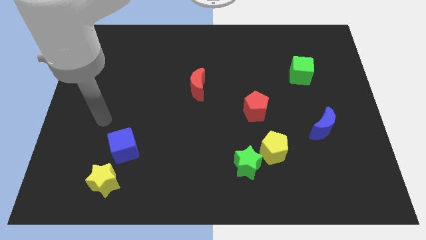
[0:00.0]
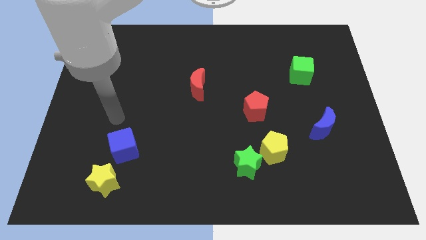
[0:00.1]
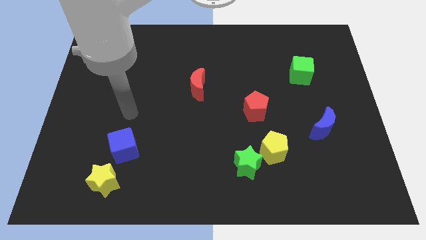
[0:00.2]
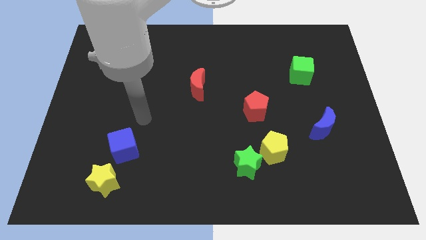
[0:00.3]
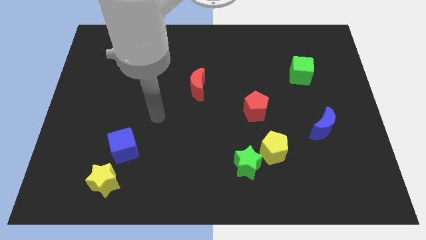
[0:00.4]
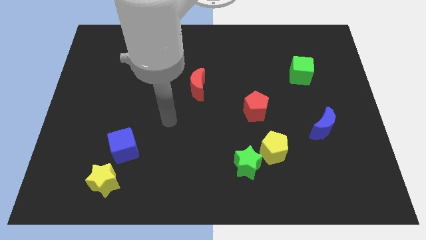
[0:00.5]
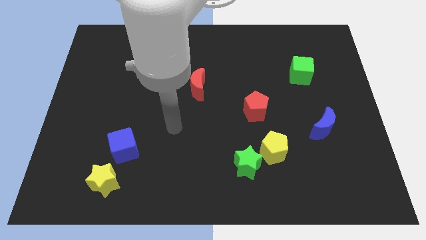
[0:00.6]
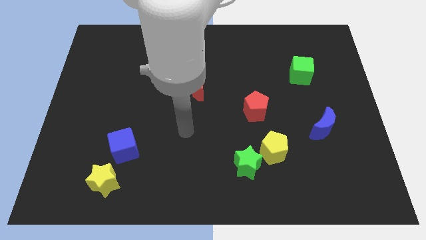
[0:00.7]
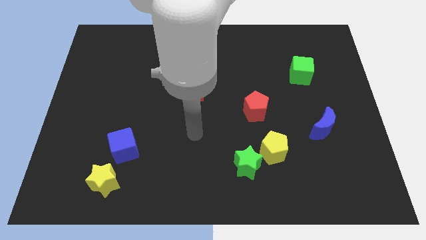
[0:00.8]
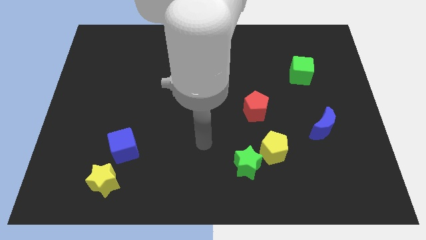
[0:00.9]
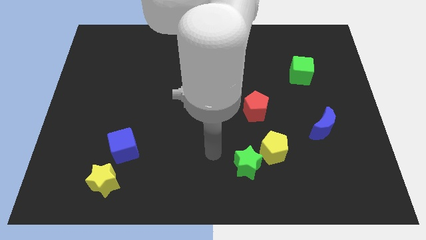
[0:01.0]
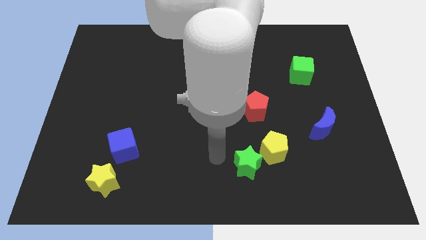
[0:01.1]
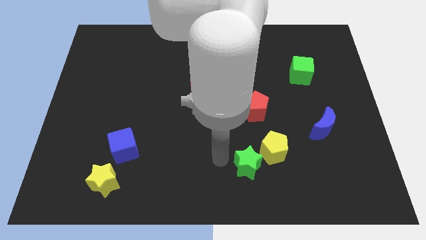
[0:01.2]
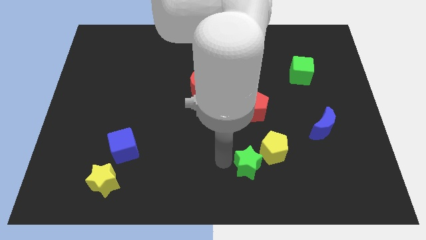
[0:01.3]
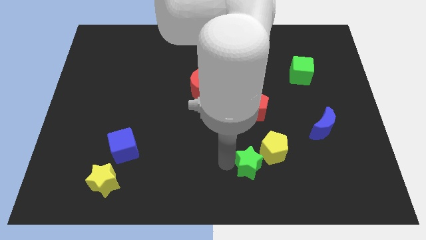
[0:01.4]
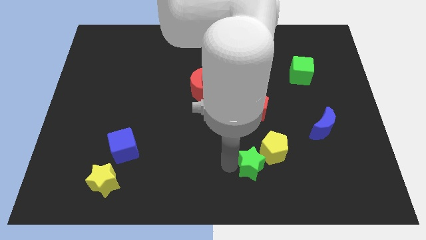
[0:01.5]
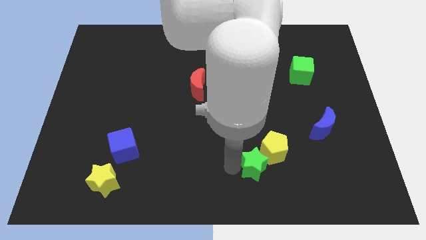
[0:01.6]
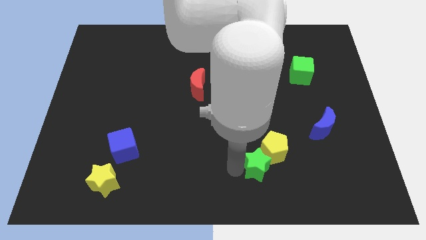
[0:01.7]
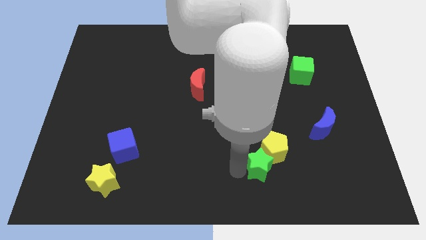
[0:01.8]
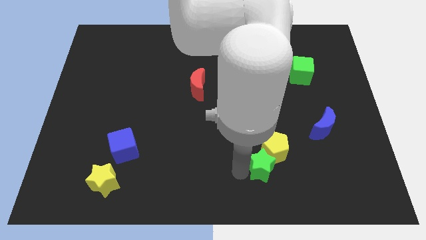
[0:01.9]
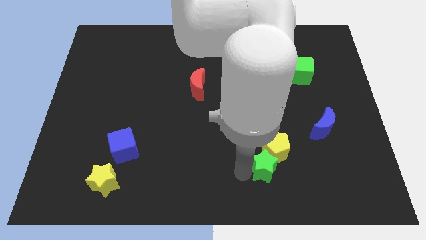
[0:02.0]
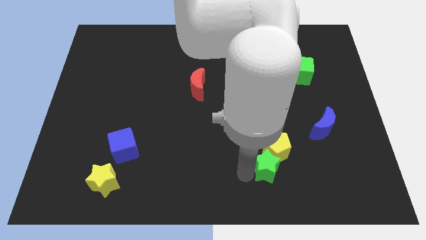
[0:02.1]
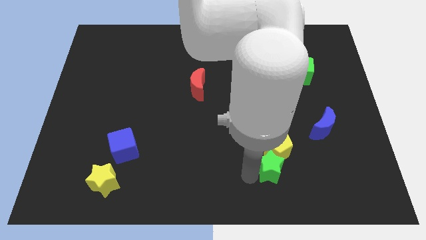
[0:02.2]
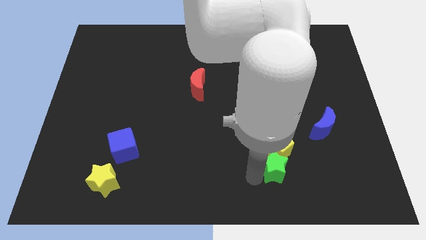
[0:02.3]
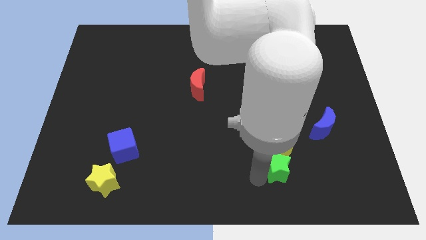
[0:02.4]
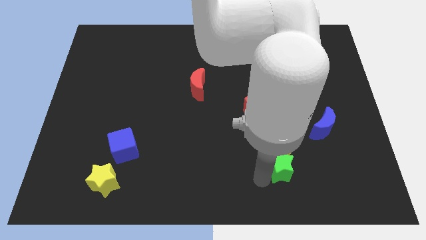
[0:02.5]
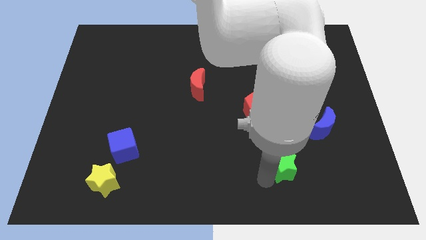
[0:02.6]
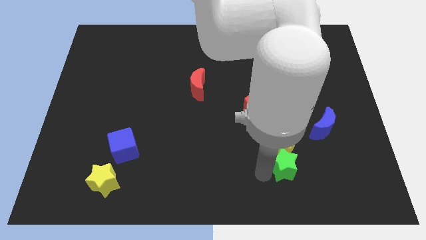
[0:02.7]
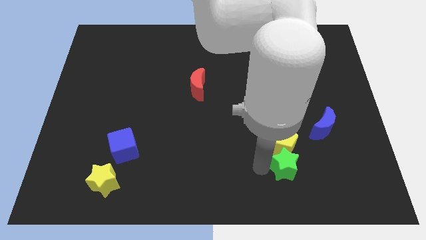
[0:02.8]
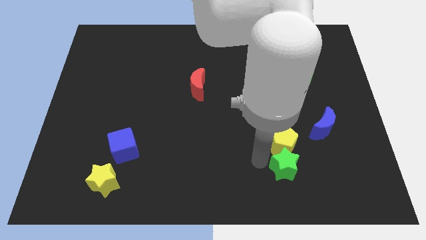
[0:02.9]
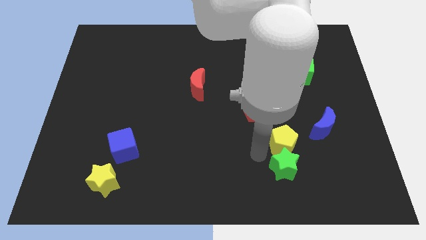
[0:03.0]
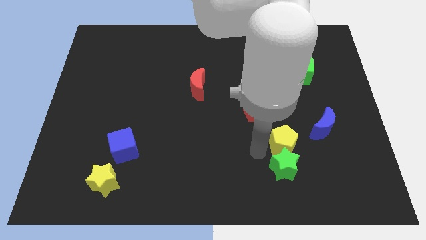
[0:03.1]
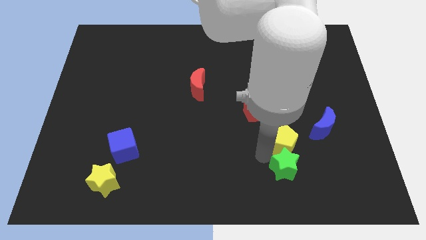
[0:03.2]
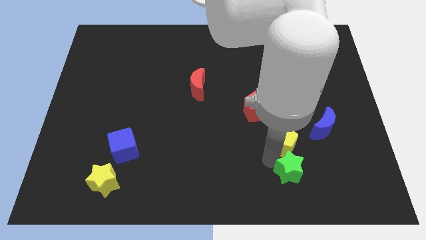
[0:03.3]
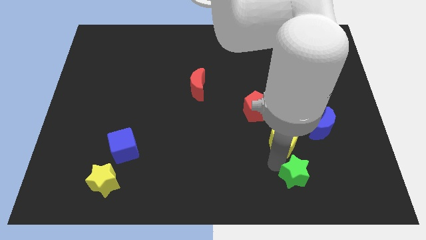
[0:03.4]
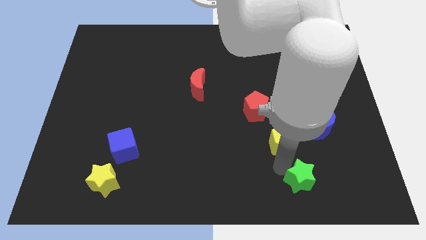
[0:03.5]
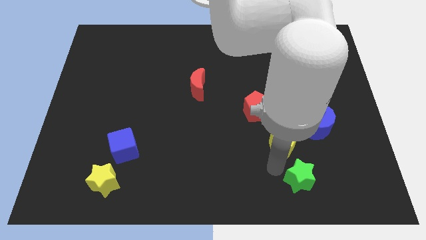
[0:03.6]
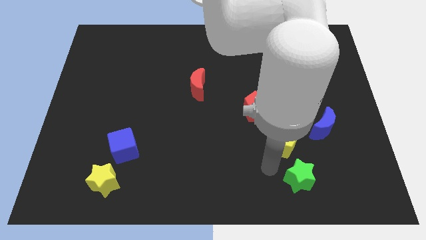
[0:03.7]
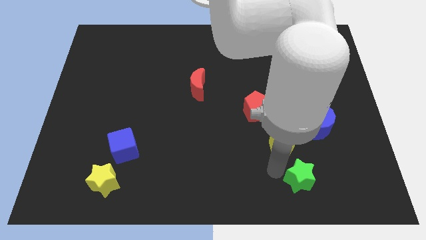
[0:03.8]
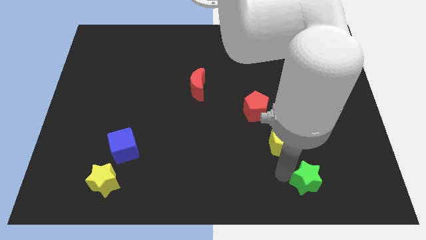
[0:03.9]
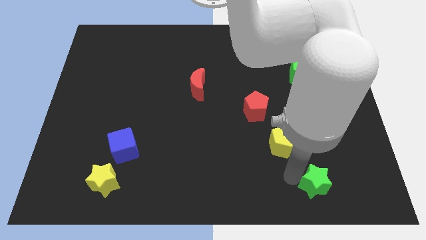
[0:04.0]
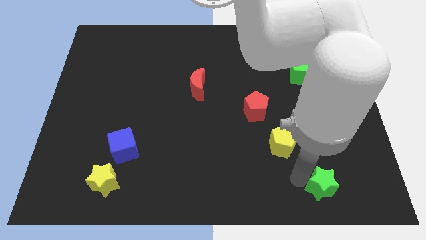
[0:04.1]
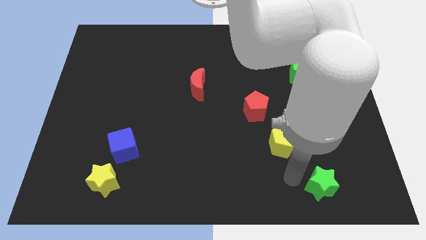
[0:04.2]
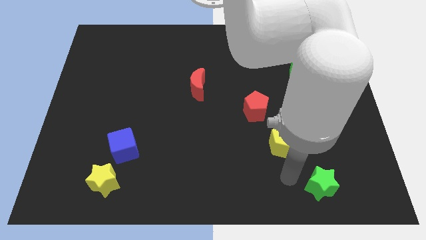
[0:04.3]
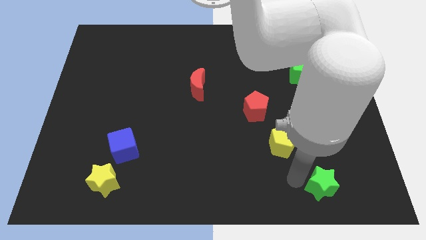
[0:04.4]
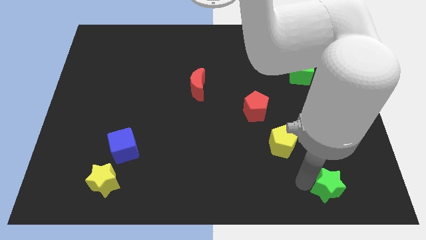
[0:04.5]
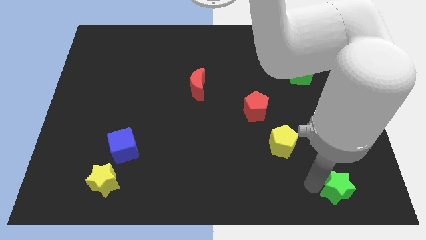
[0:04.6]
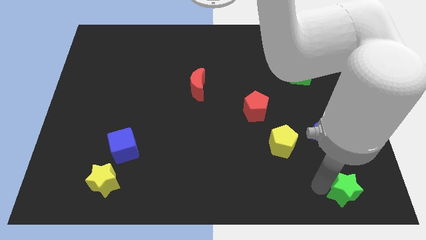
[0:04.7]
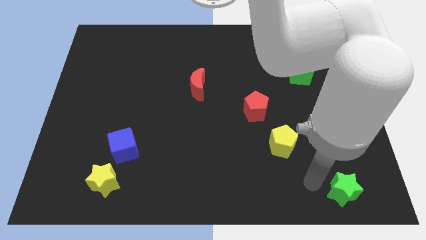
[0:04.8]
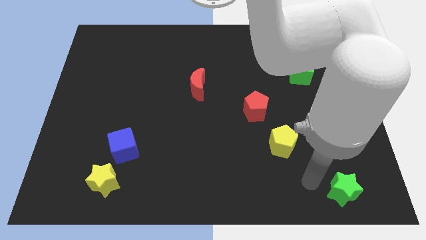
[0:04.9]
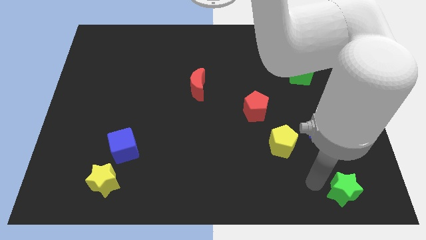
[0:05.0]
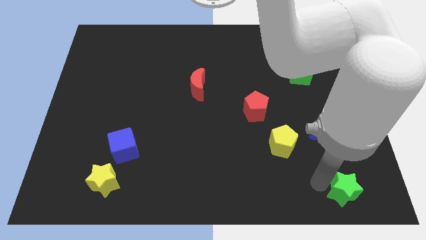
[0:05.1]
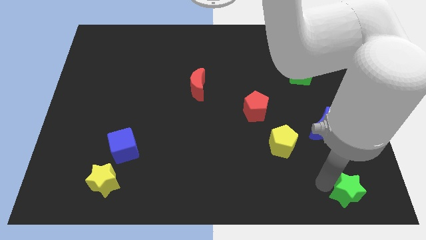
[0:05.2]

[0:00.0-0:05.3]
push the green star to the bottom right of the board

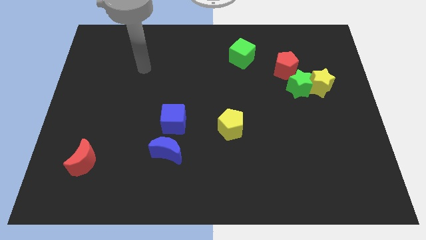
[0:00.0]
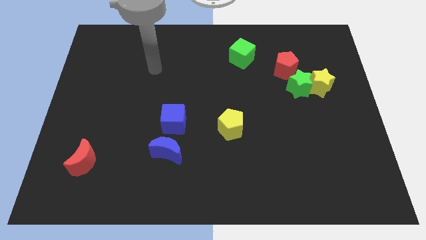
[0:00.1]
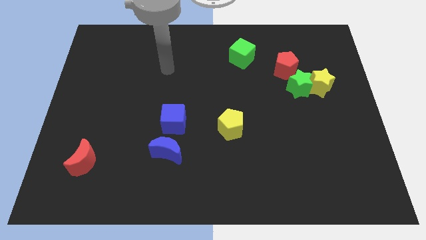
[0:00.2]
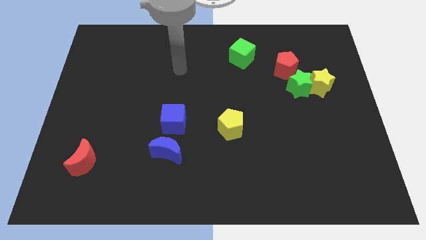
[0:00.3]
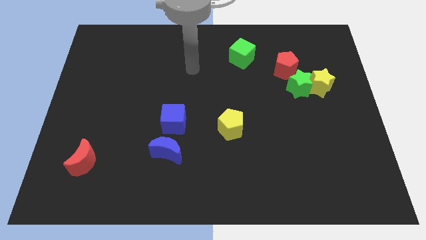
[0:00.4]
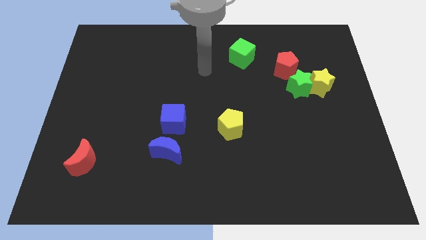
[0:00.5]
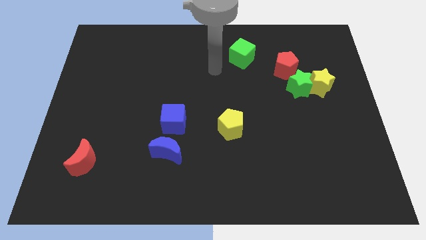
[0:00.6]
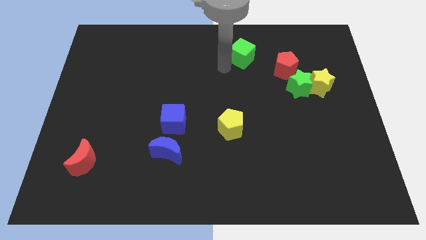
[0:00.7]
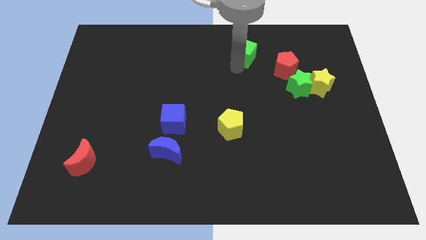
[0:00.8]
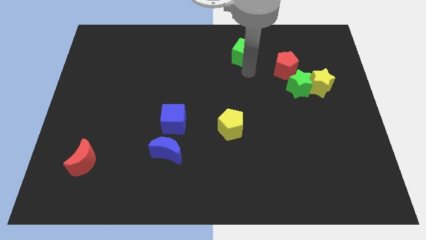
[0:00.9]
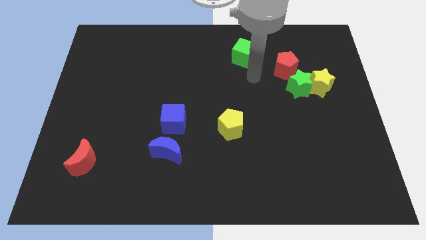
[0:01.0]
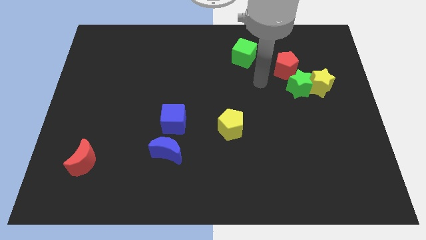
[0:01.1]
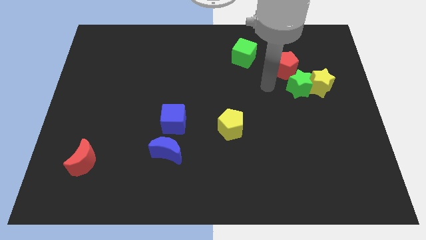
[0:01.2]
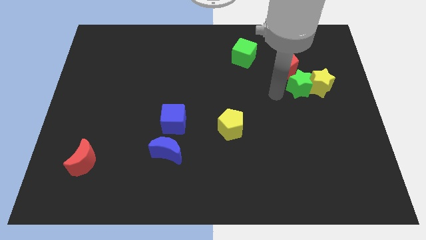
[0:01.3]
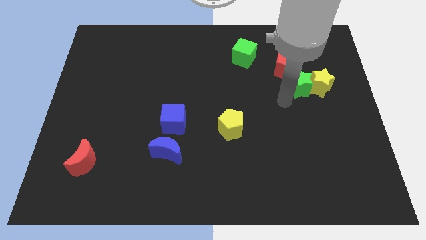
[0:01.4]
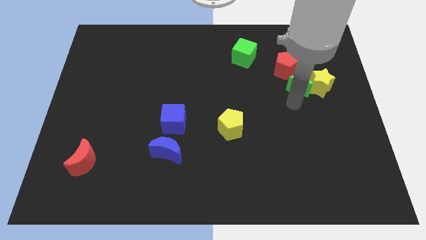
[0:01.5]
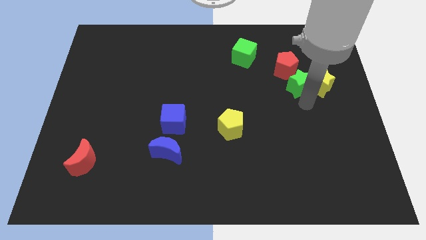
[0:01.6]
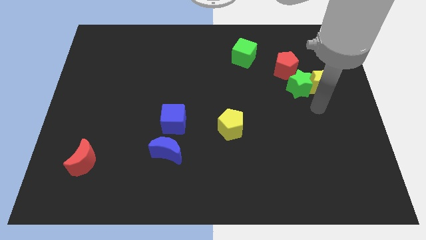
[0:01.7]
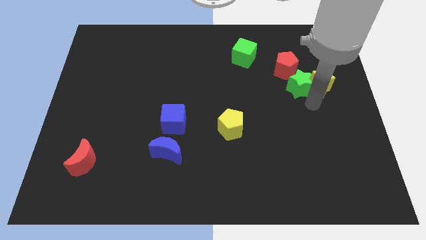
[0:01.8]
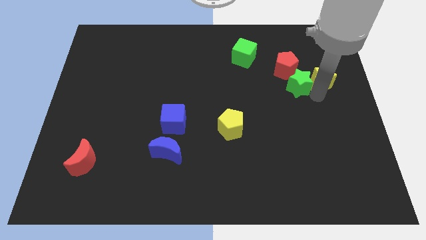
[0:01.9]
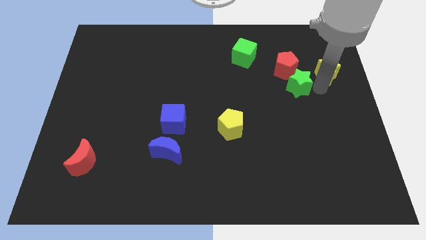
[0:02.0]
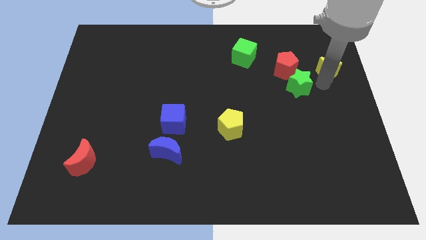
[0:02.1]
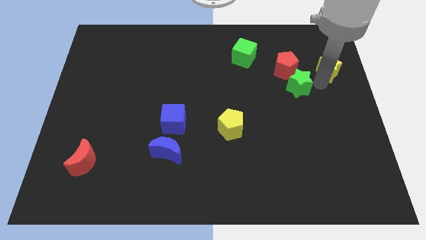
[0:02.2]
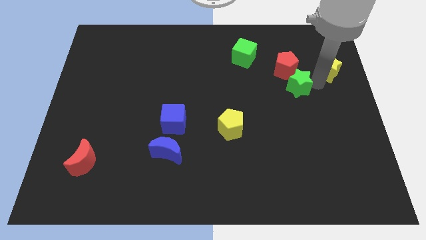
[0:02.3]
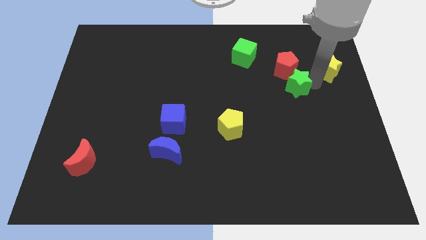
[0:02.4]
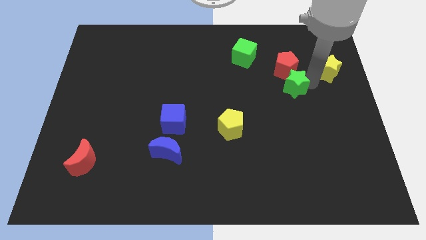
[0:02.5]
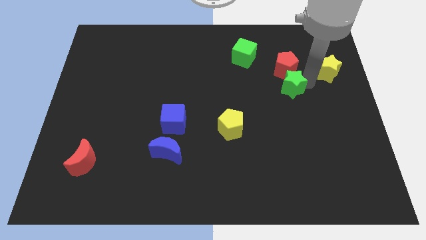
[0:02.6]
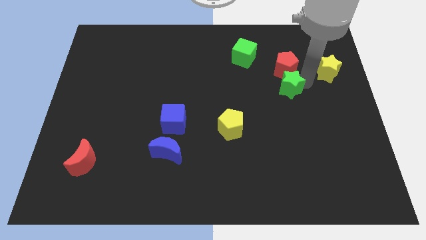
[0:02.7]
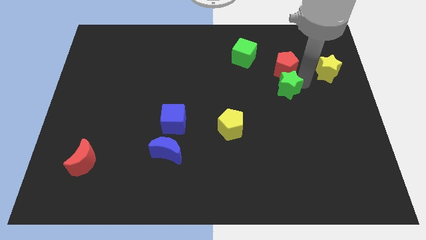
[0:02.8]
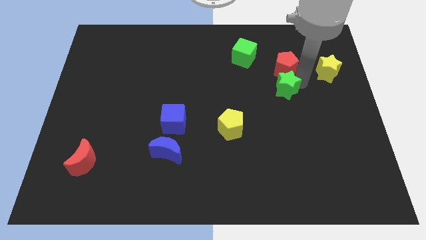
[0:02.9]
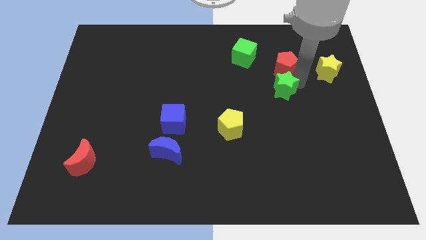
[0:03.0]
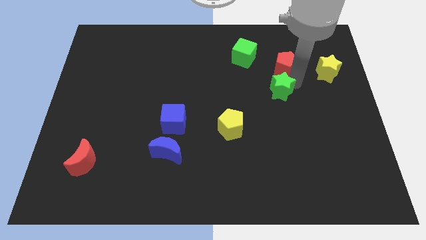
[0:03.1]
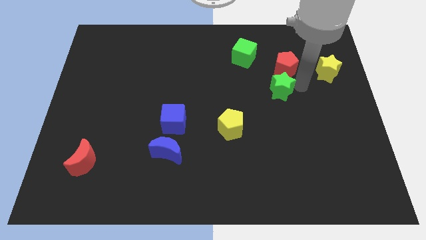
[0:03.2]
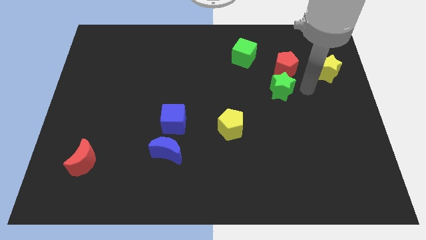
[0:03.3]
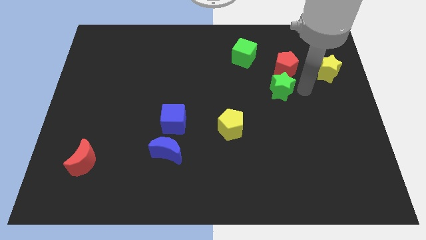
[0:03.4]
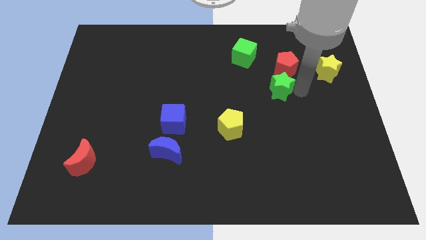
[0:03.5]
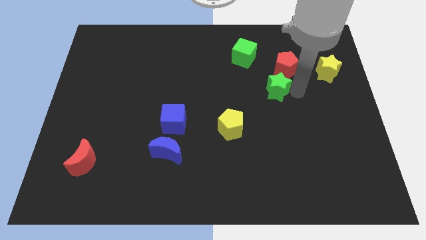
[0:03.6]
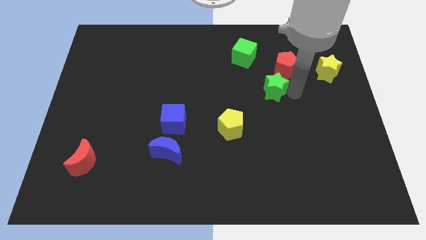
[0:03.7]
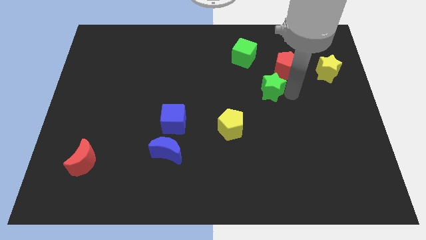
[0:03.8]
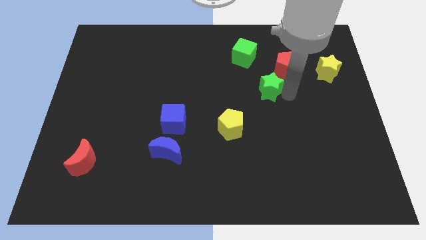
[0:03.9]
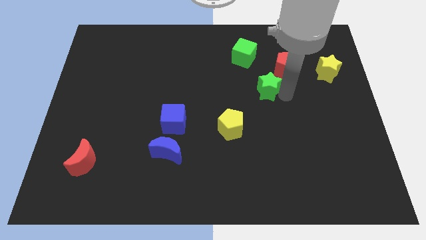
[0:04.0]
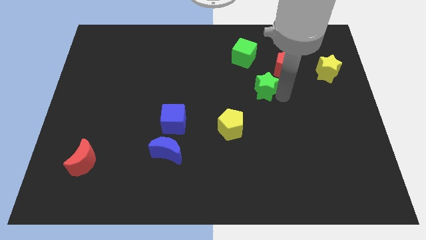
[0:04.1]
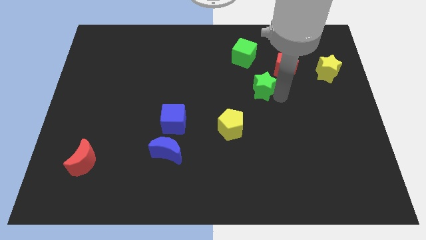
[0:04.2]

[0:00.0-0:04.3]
move the green star to the middle of the board
